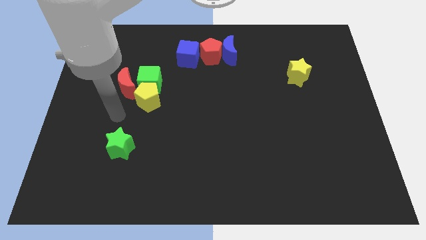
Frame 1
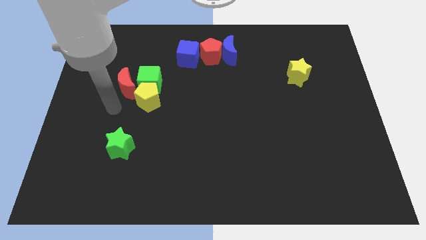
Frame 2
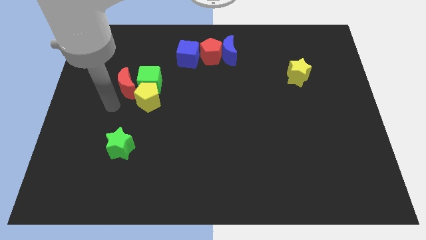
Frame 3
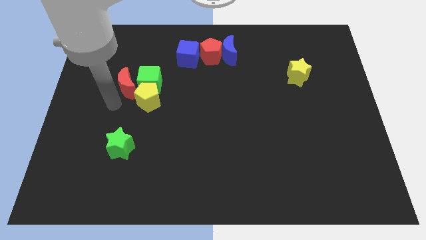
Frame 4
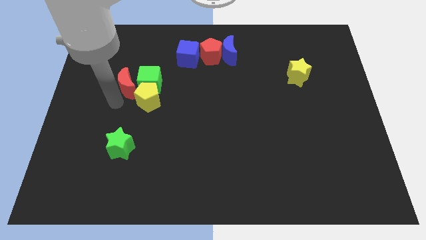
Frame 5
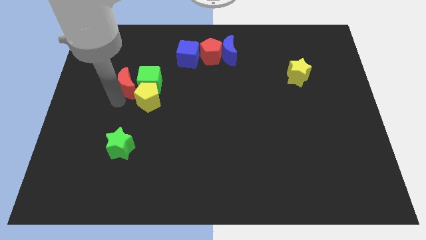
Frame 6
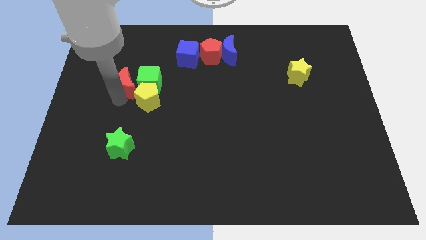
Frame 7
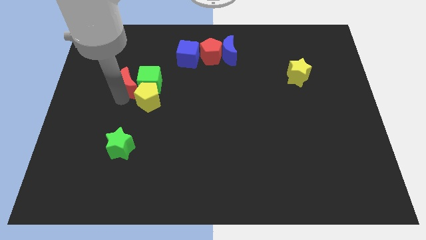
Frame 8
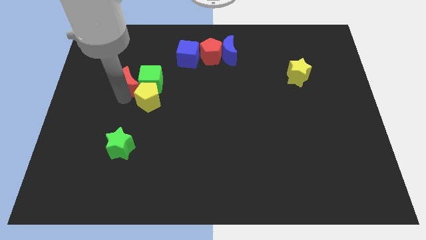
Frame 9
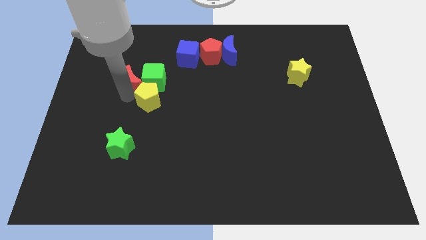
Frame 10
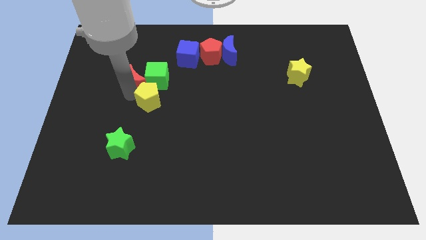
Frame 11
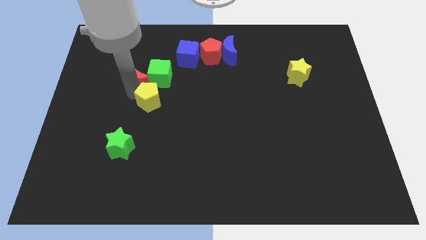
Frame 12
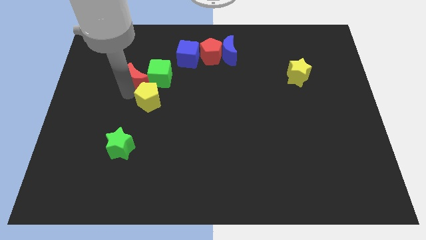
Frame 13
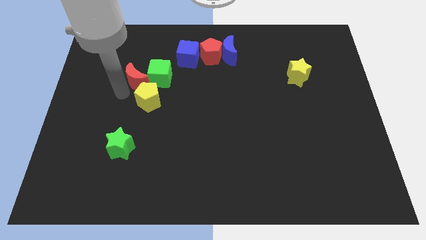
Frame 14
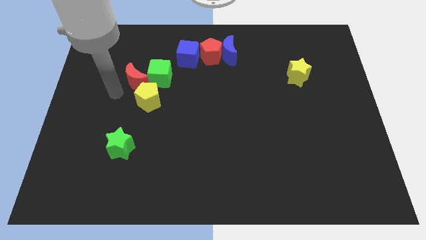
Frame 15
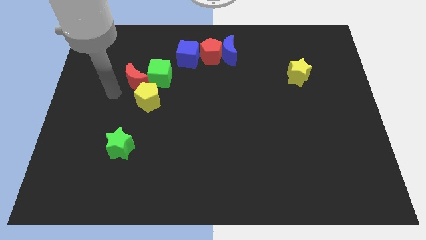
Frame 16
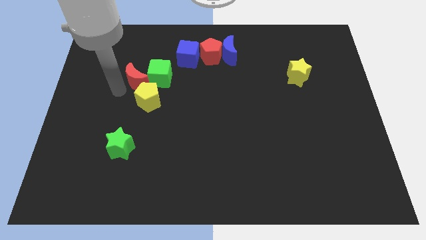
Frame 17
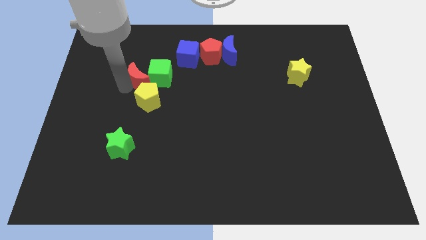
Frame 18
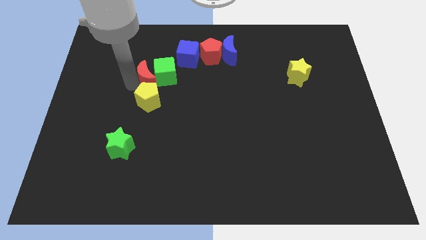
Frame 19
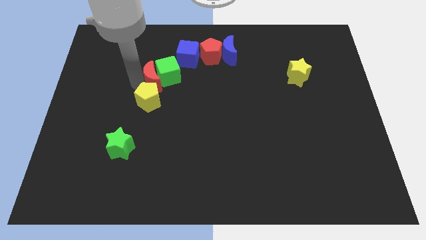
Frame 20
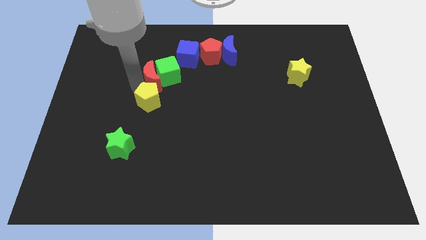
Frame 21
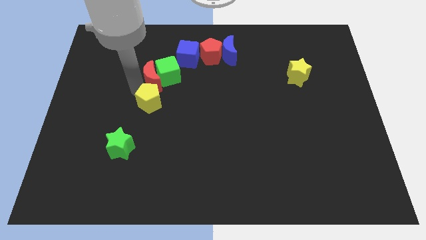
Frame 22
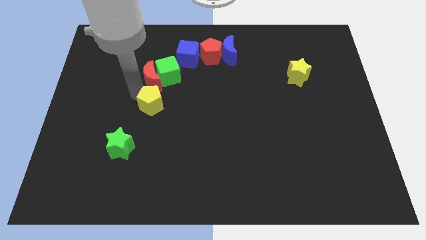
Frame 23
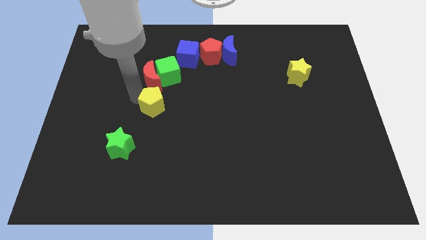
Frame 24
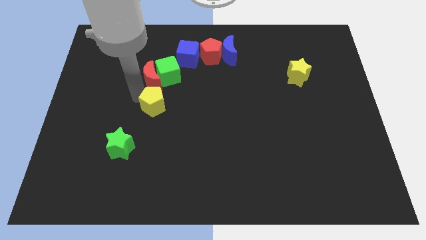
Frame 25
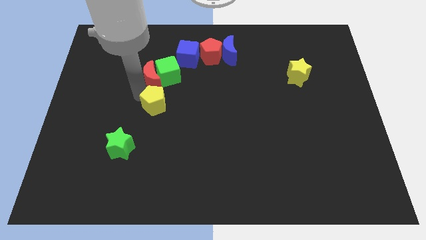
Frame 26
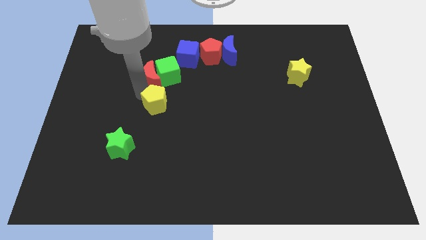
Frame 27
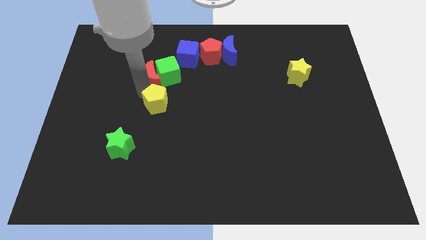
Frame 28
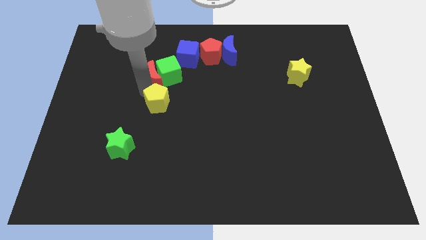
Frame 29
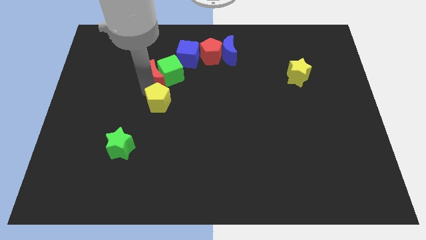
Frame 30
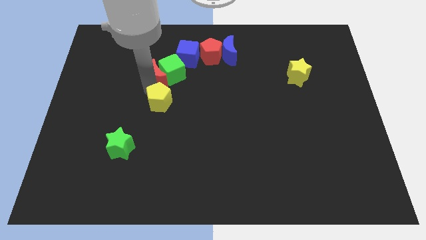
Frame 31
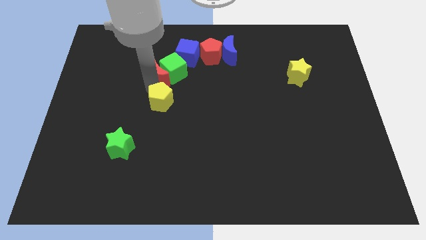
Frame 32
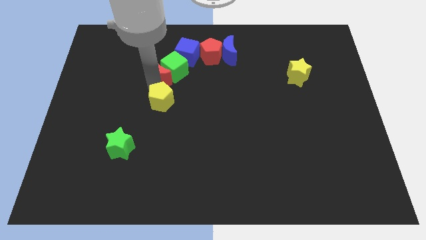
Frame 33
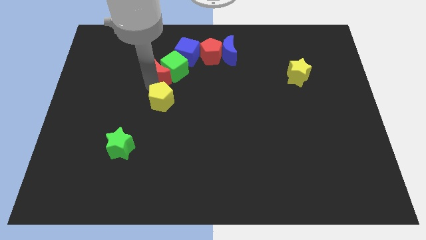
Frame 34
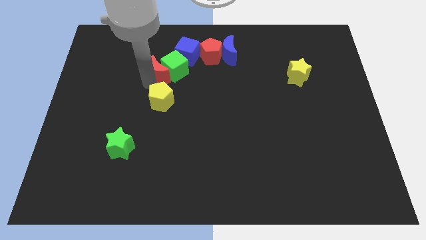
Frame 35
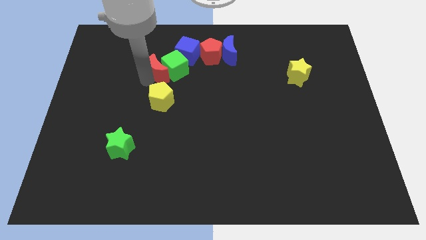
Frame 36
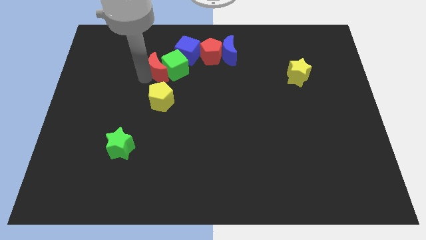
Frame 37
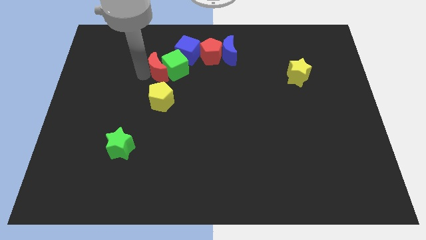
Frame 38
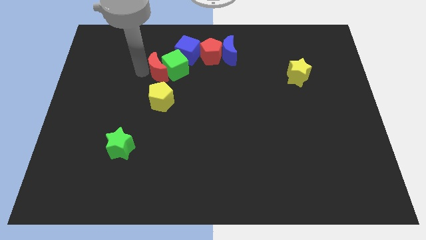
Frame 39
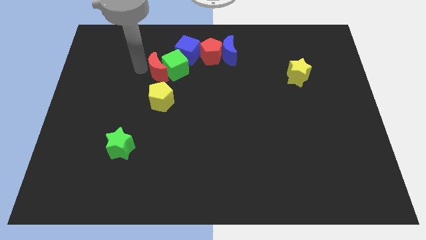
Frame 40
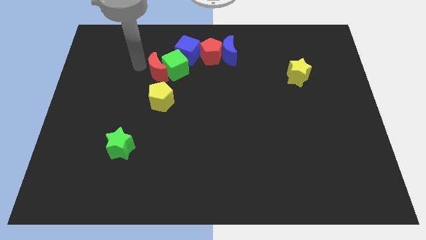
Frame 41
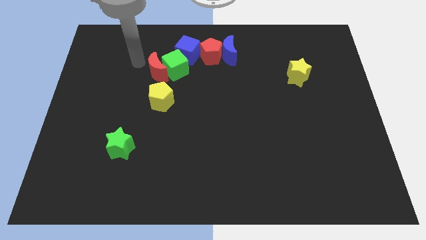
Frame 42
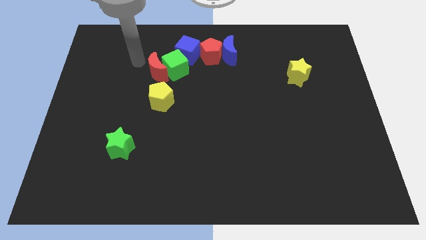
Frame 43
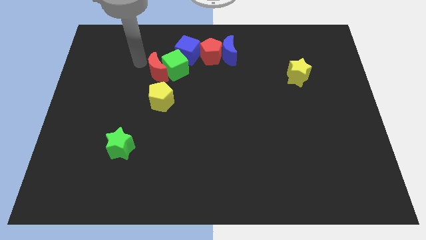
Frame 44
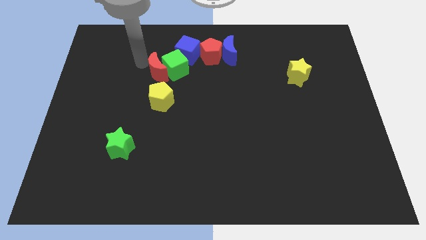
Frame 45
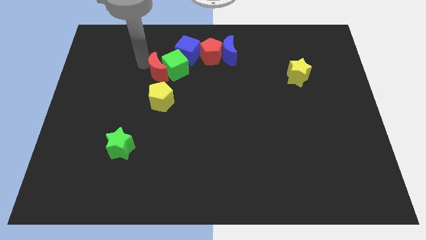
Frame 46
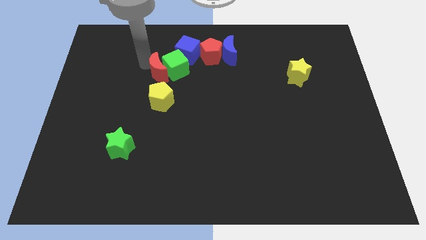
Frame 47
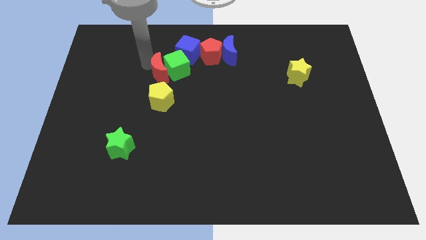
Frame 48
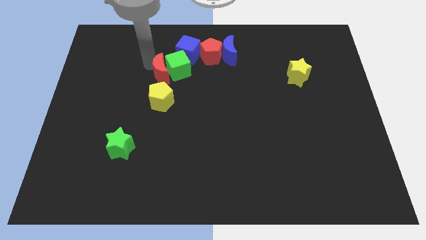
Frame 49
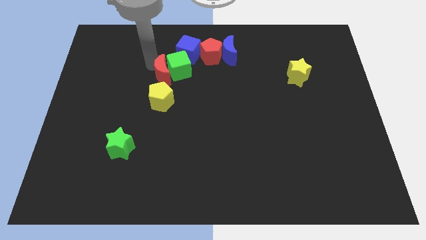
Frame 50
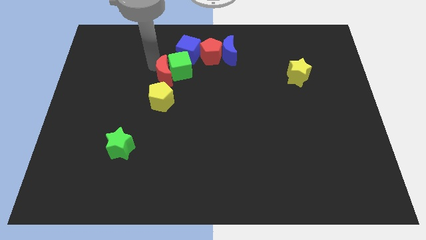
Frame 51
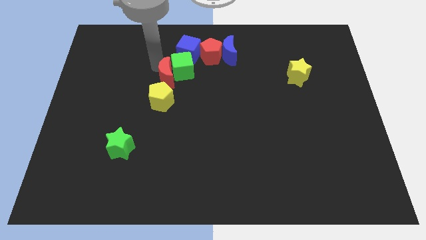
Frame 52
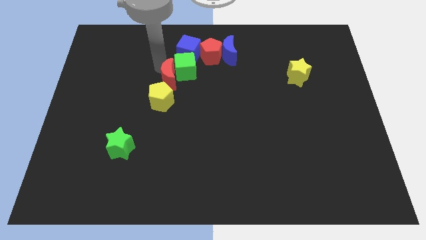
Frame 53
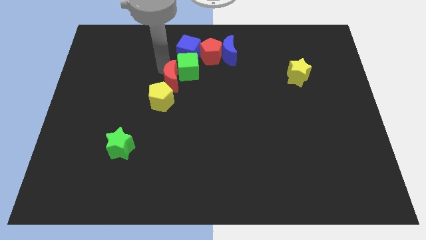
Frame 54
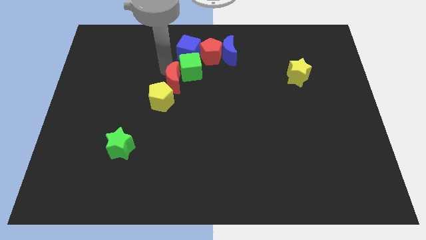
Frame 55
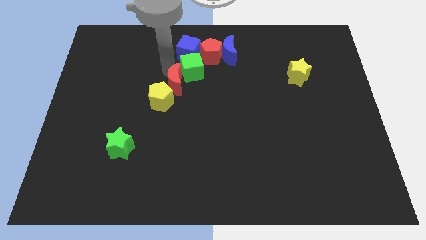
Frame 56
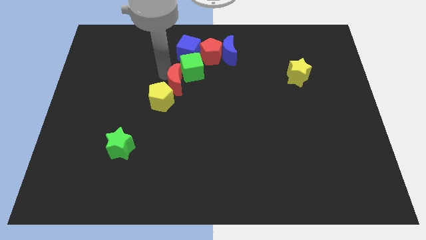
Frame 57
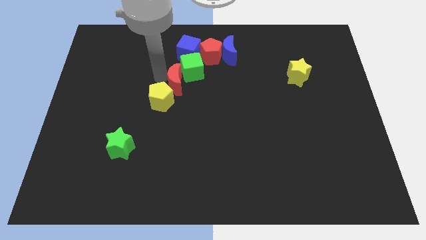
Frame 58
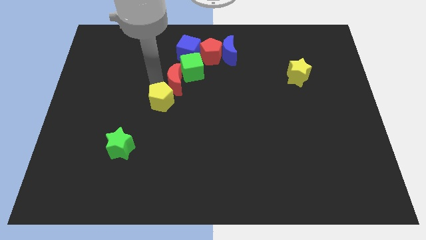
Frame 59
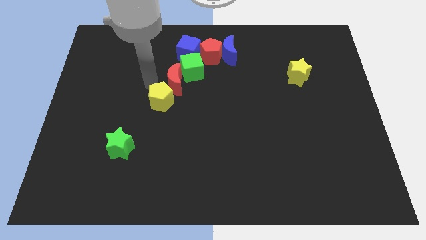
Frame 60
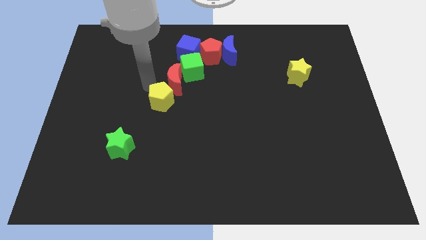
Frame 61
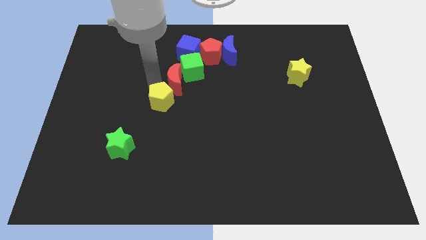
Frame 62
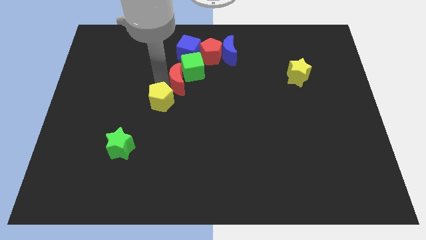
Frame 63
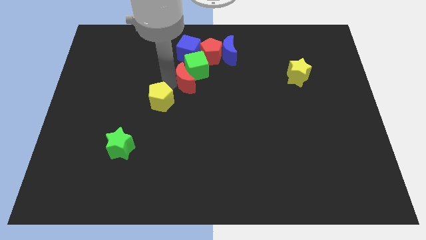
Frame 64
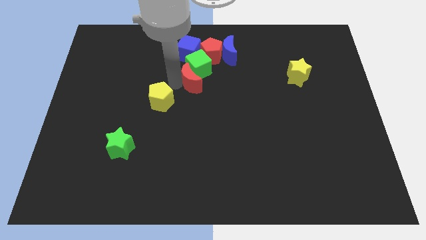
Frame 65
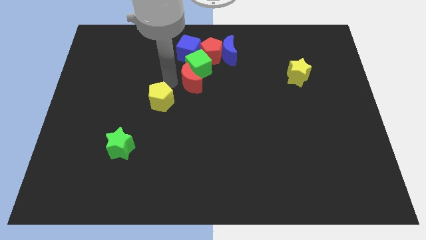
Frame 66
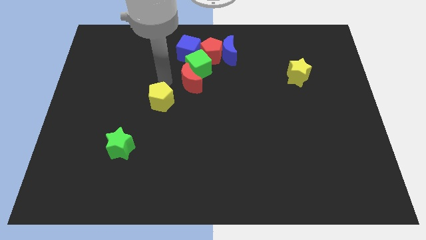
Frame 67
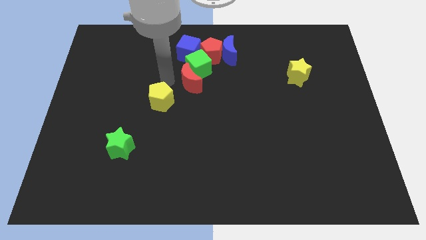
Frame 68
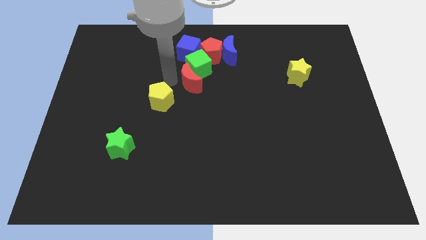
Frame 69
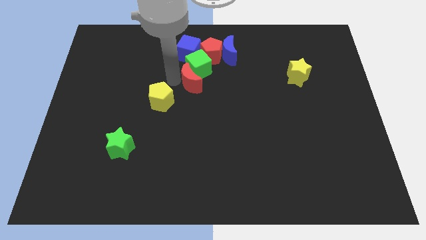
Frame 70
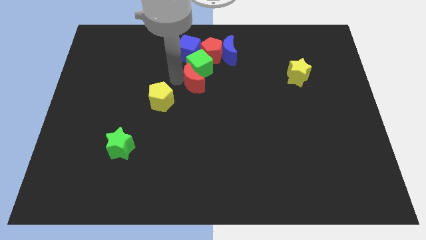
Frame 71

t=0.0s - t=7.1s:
move the red moon below the red pentagon
